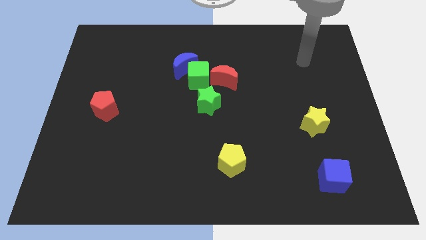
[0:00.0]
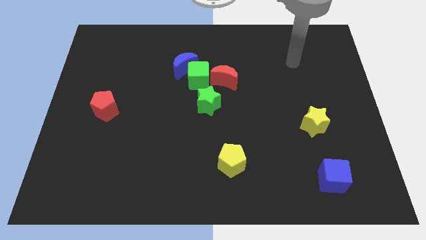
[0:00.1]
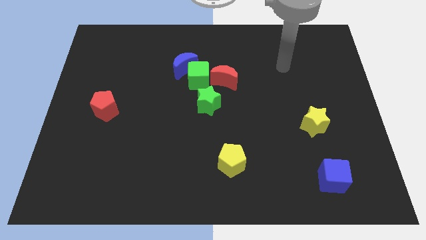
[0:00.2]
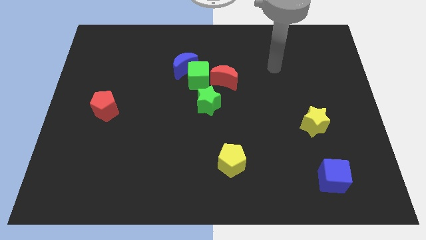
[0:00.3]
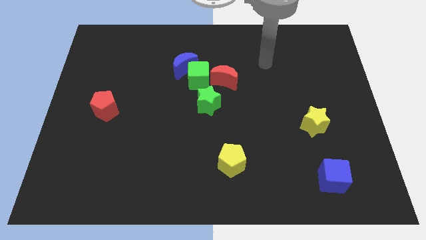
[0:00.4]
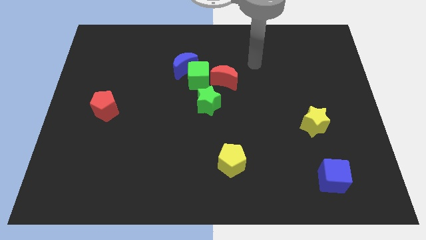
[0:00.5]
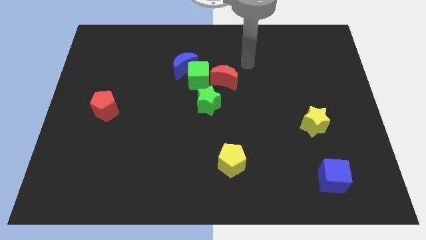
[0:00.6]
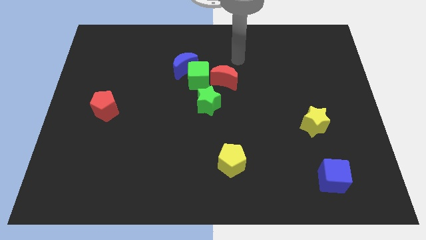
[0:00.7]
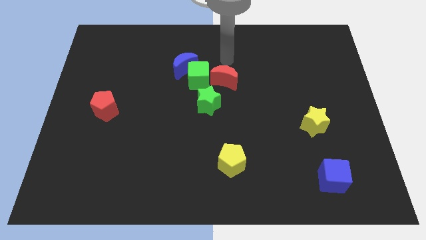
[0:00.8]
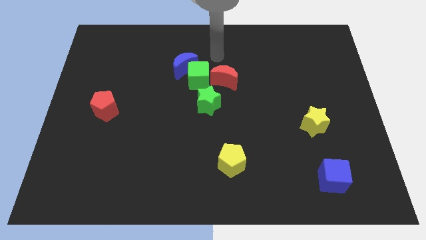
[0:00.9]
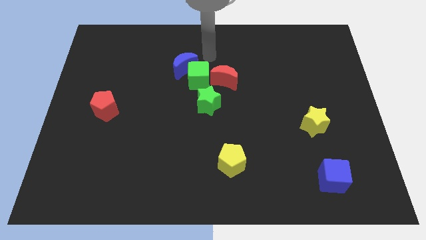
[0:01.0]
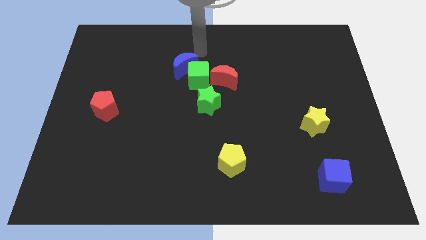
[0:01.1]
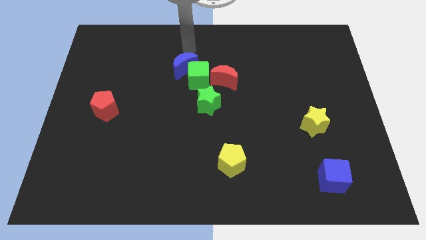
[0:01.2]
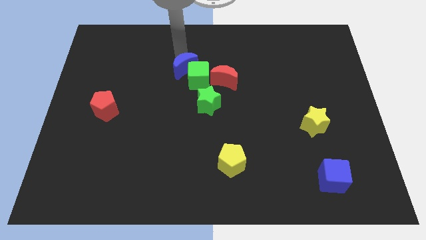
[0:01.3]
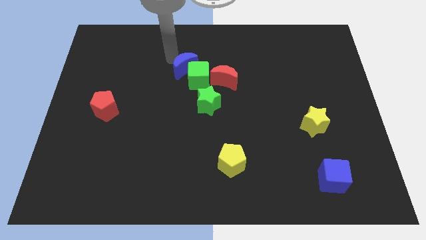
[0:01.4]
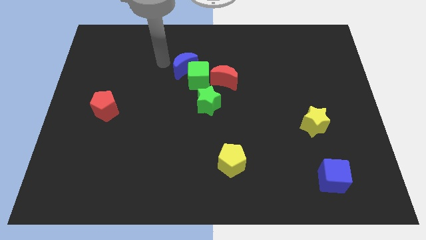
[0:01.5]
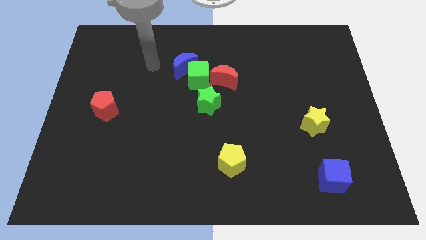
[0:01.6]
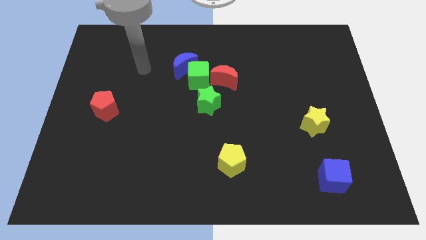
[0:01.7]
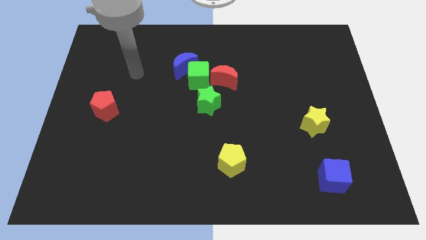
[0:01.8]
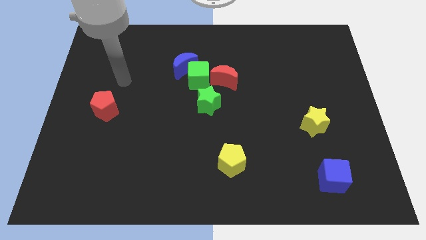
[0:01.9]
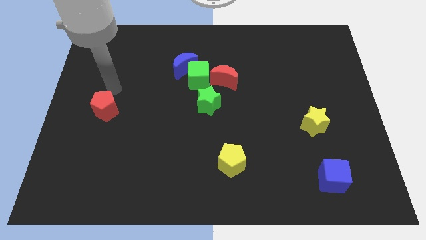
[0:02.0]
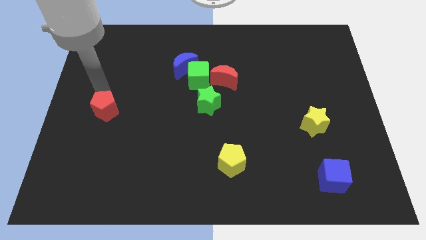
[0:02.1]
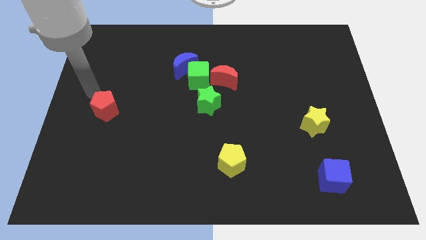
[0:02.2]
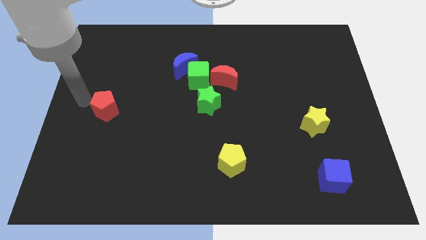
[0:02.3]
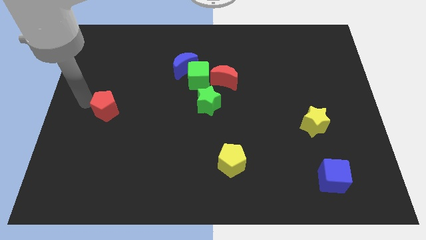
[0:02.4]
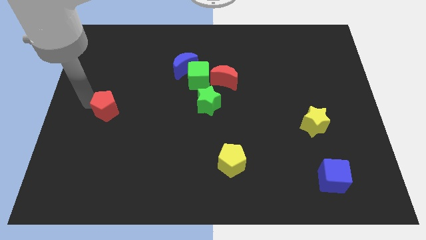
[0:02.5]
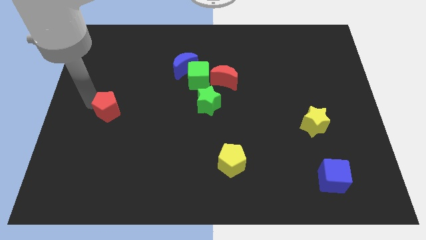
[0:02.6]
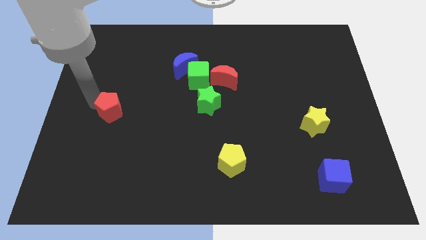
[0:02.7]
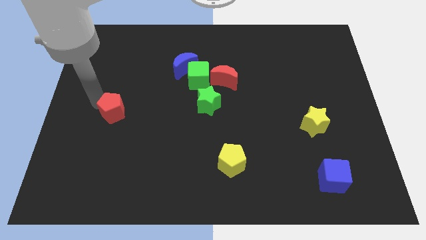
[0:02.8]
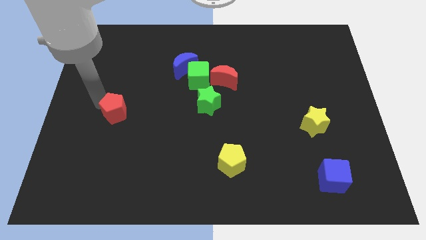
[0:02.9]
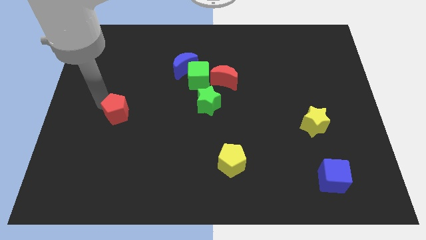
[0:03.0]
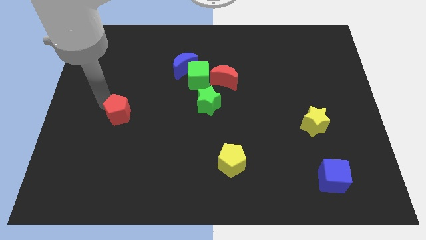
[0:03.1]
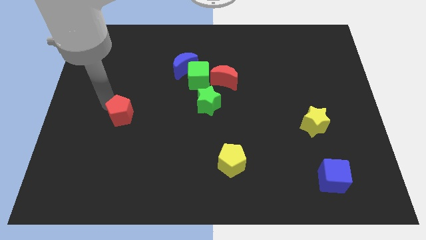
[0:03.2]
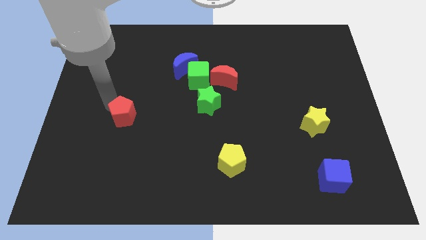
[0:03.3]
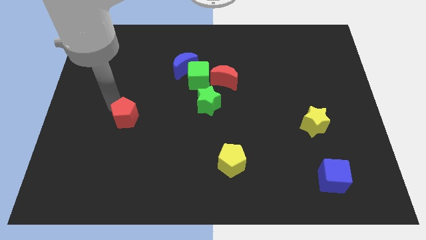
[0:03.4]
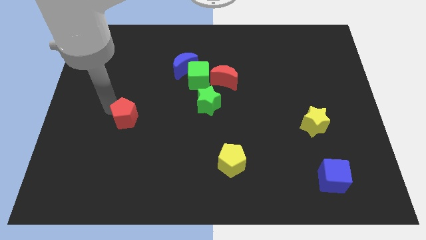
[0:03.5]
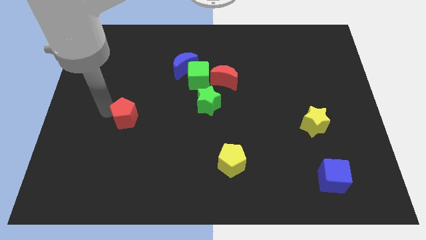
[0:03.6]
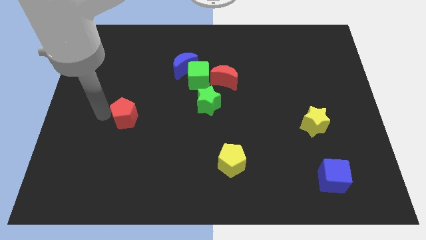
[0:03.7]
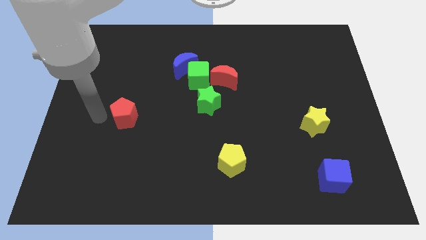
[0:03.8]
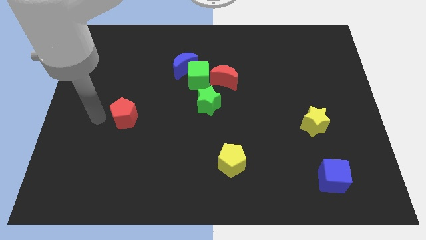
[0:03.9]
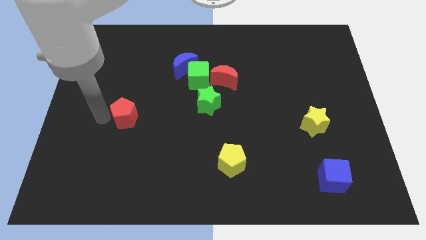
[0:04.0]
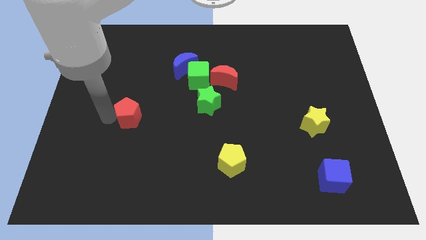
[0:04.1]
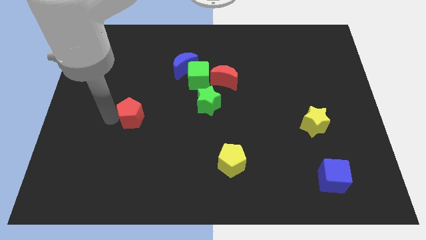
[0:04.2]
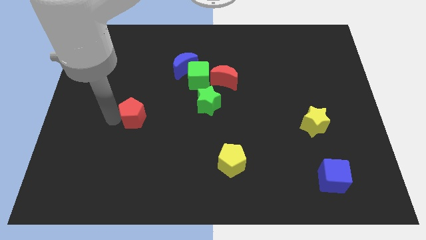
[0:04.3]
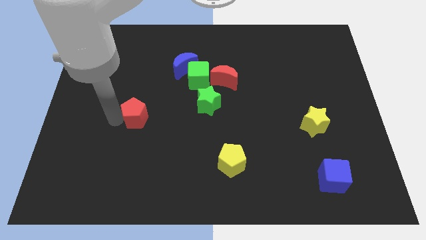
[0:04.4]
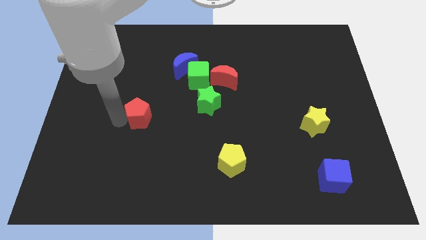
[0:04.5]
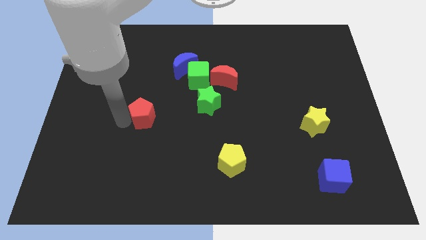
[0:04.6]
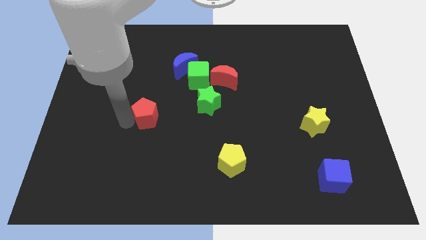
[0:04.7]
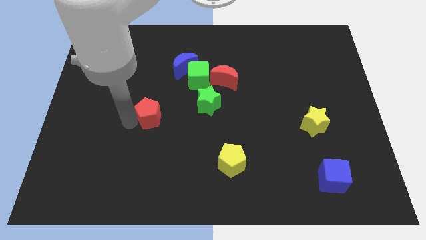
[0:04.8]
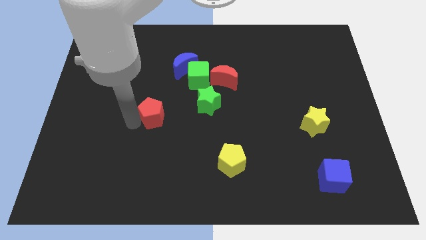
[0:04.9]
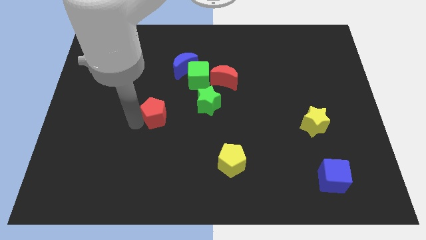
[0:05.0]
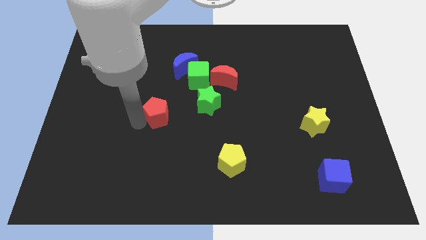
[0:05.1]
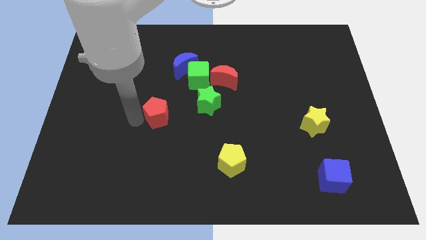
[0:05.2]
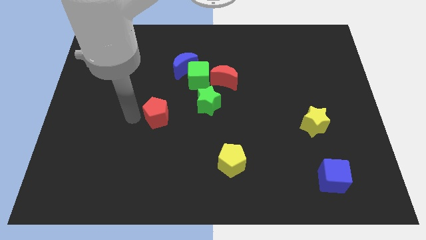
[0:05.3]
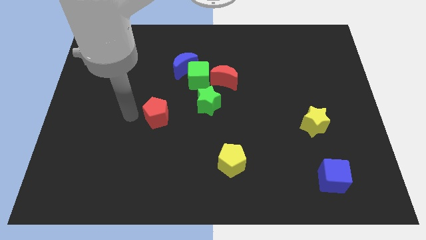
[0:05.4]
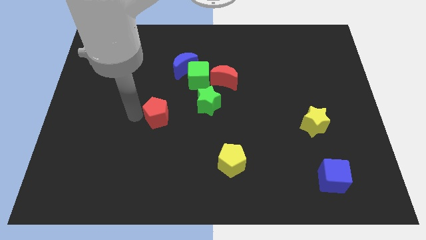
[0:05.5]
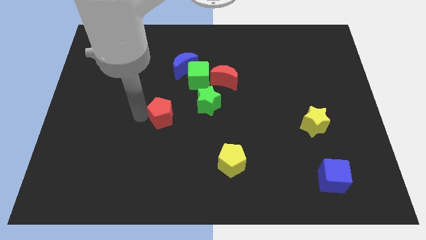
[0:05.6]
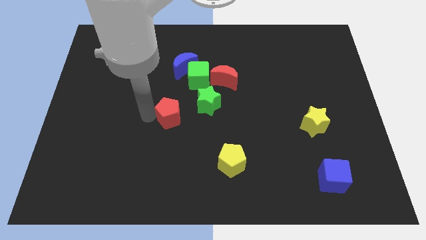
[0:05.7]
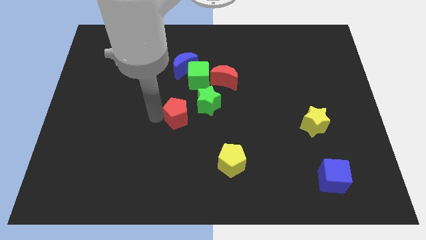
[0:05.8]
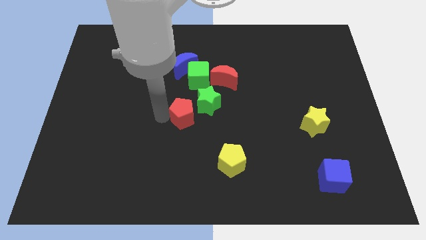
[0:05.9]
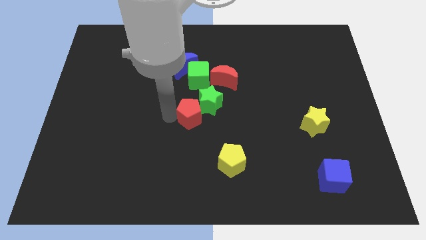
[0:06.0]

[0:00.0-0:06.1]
slide the red pentagon to the right

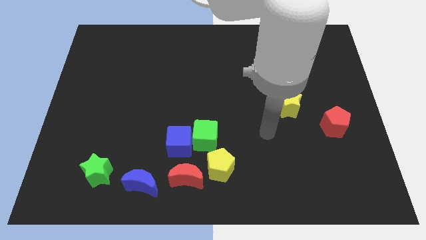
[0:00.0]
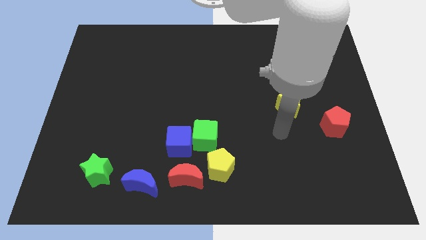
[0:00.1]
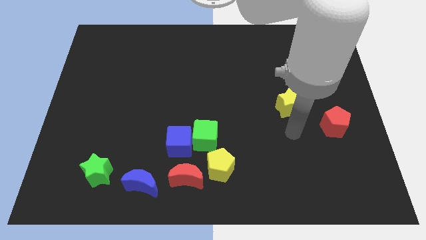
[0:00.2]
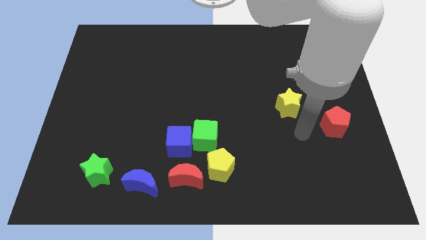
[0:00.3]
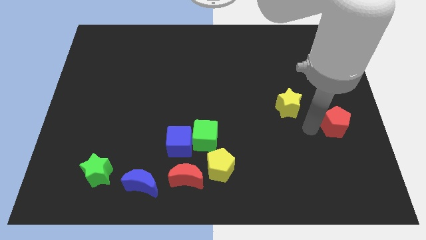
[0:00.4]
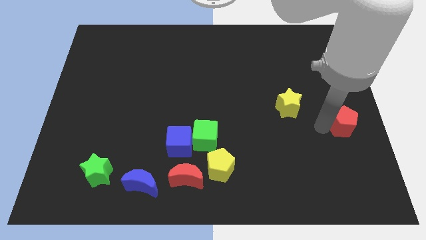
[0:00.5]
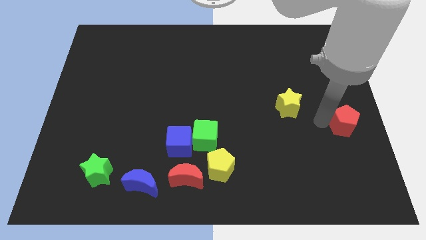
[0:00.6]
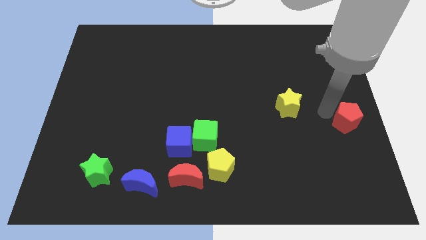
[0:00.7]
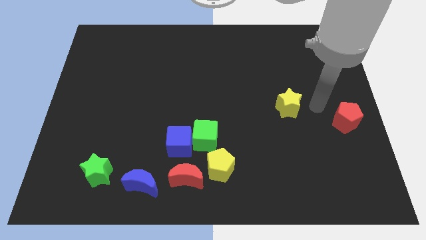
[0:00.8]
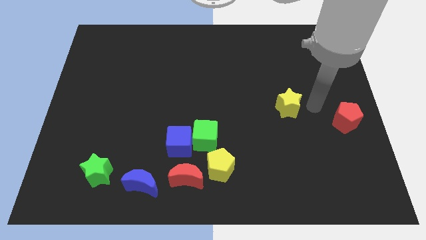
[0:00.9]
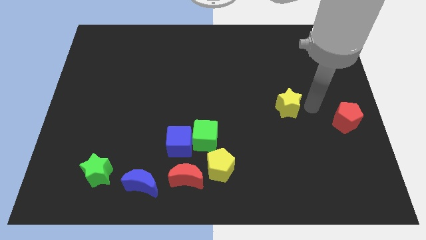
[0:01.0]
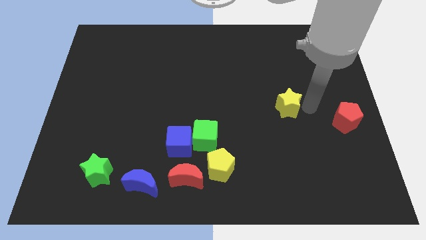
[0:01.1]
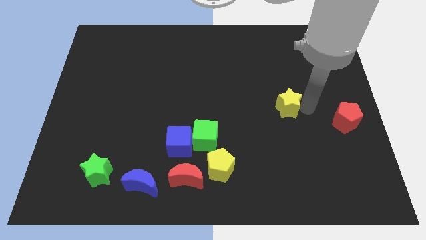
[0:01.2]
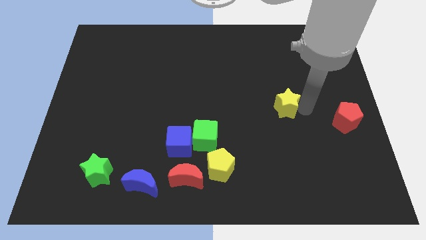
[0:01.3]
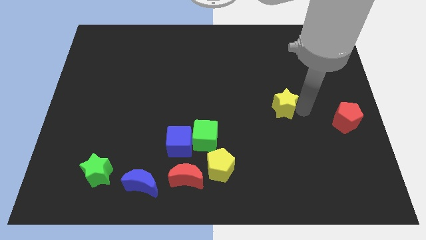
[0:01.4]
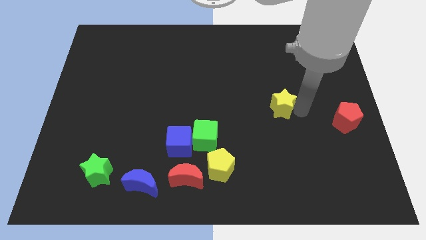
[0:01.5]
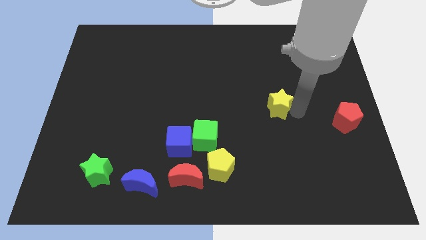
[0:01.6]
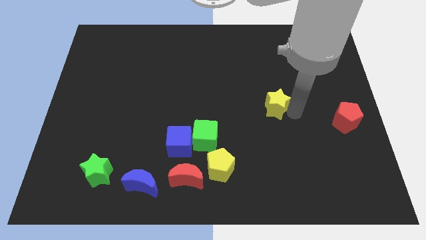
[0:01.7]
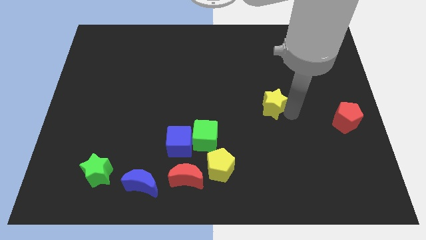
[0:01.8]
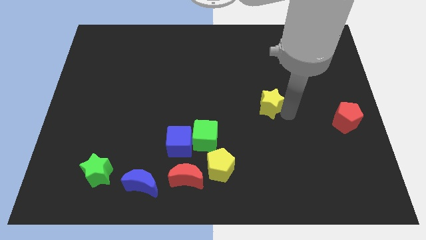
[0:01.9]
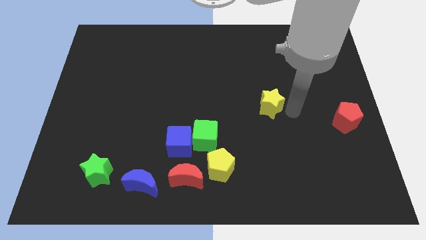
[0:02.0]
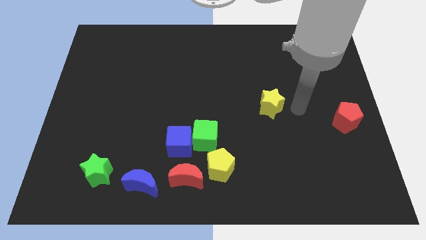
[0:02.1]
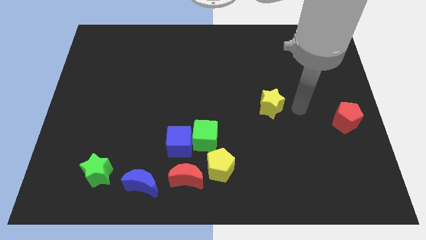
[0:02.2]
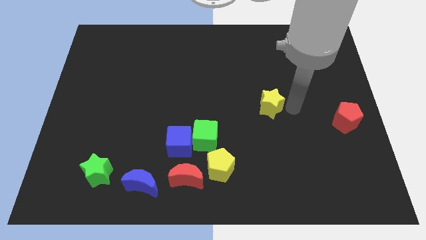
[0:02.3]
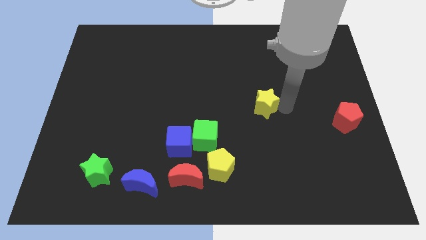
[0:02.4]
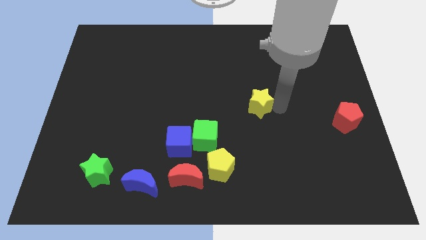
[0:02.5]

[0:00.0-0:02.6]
push the yellow star left a bit
